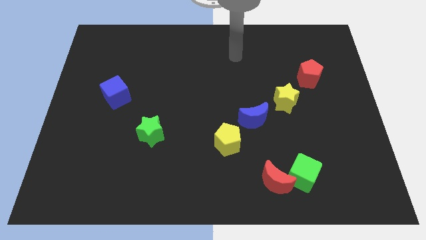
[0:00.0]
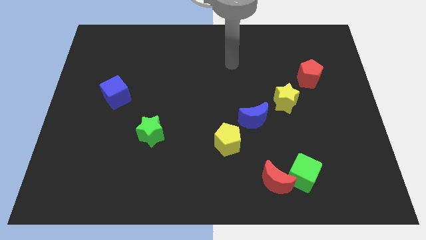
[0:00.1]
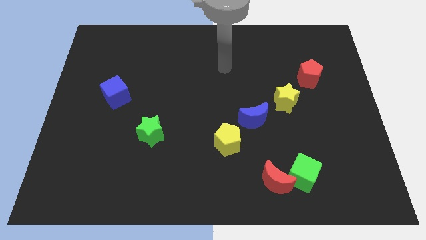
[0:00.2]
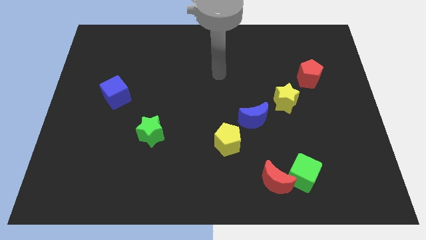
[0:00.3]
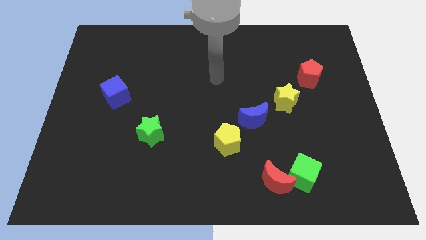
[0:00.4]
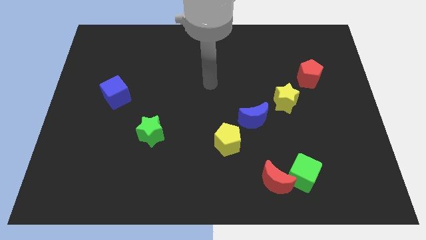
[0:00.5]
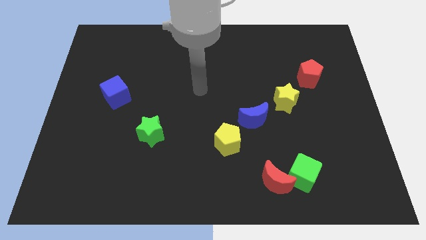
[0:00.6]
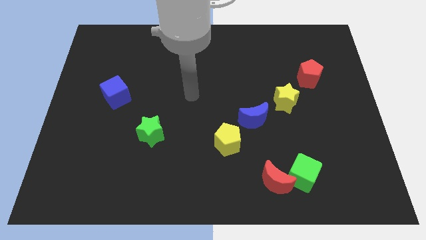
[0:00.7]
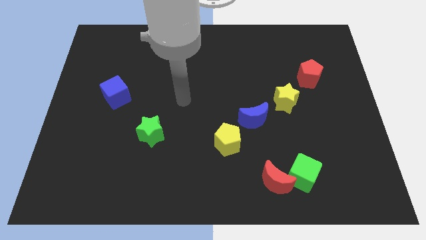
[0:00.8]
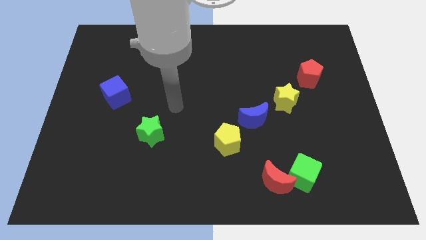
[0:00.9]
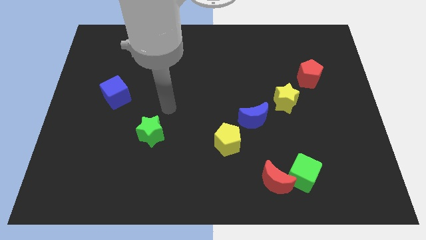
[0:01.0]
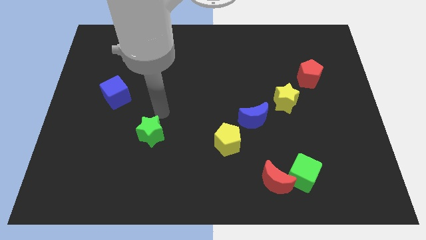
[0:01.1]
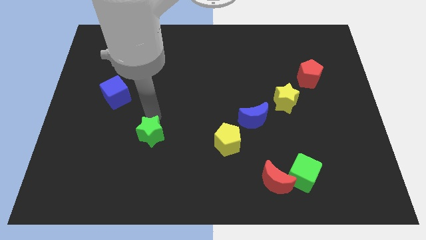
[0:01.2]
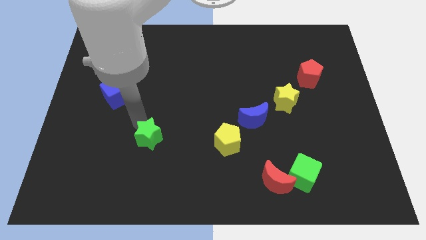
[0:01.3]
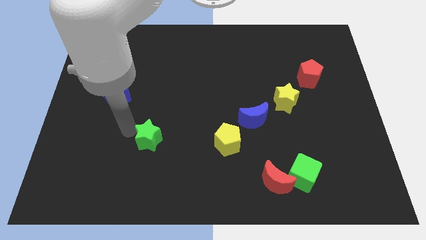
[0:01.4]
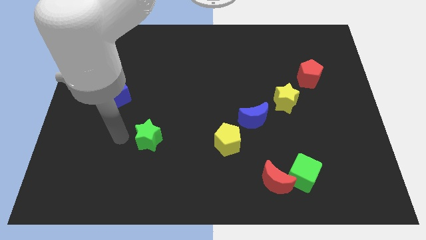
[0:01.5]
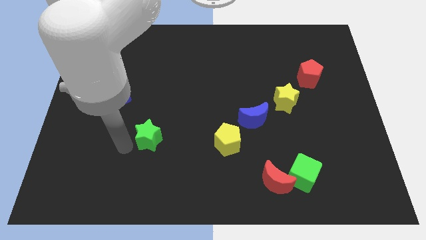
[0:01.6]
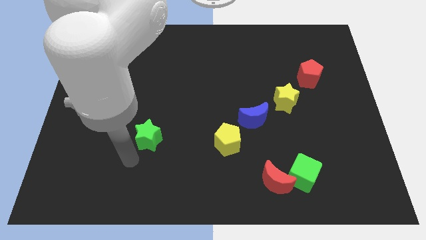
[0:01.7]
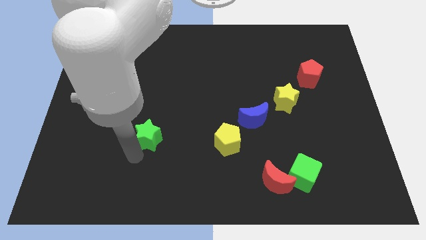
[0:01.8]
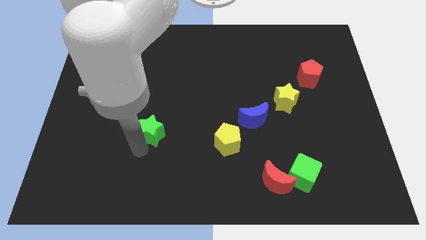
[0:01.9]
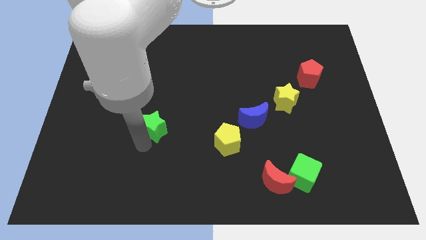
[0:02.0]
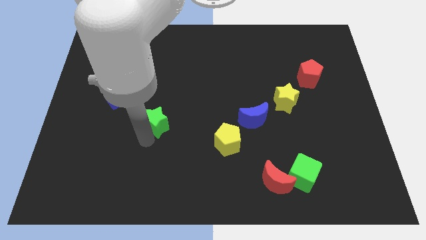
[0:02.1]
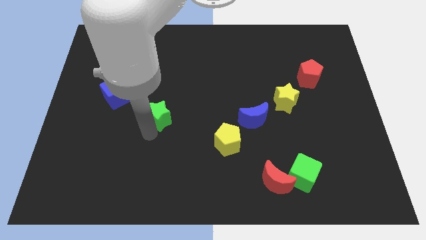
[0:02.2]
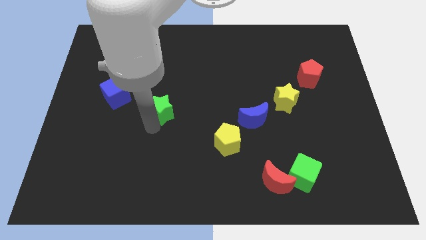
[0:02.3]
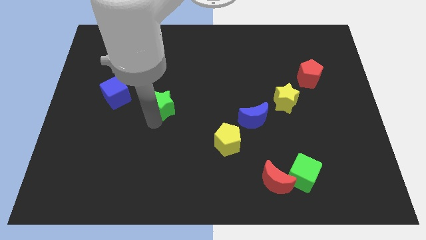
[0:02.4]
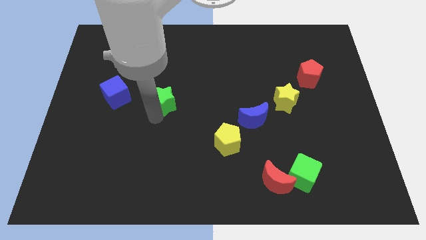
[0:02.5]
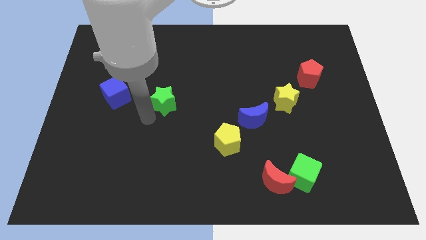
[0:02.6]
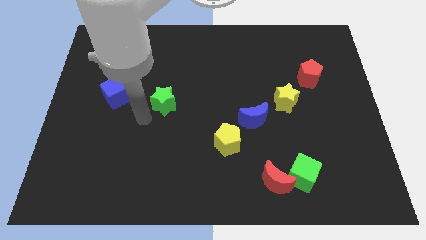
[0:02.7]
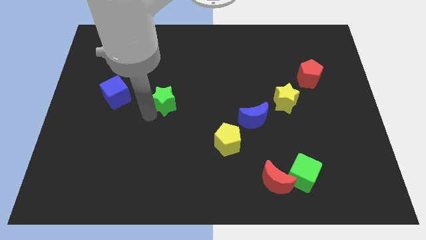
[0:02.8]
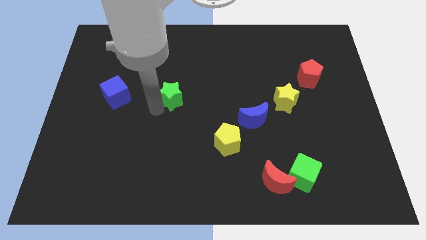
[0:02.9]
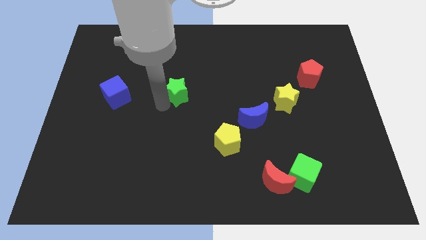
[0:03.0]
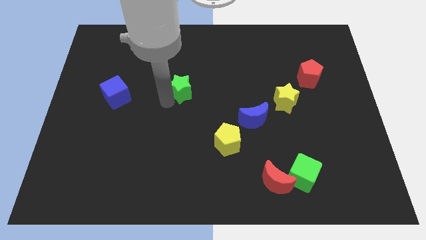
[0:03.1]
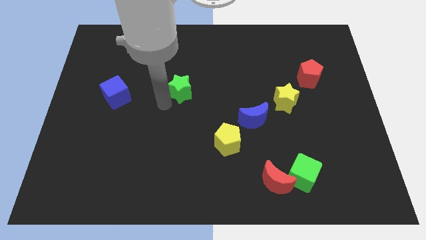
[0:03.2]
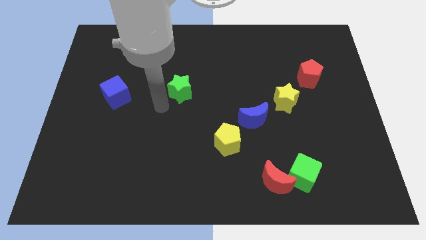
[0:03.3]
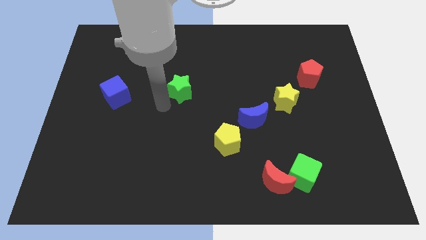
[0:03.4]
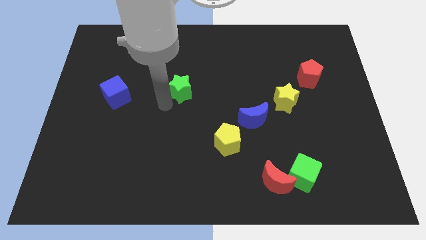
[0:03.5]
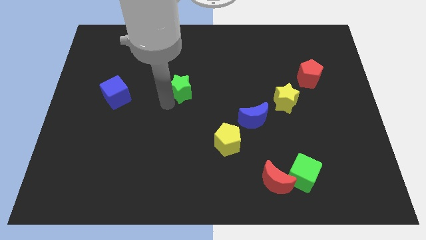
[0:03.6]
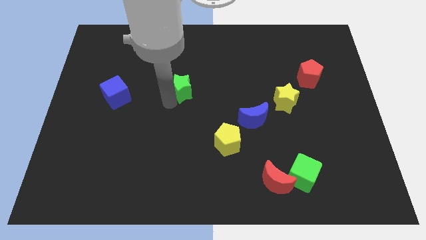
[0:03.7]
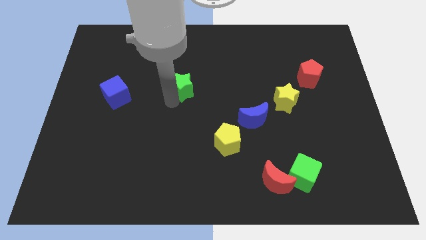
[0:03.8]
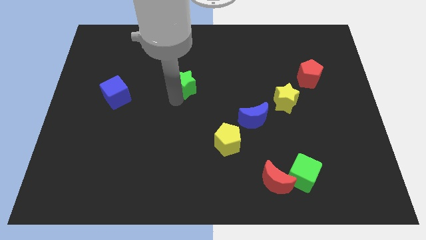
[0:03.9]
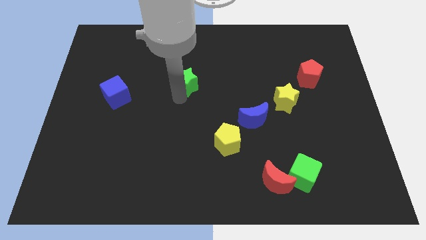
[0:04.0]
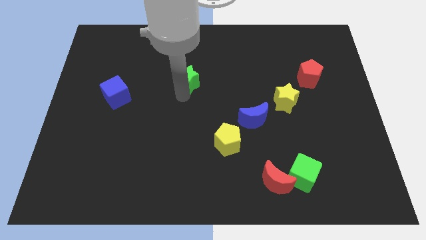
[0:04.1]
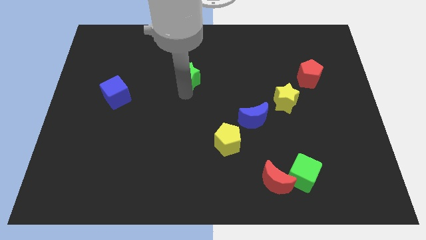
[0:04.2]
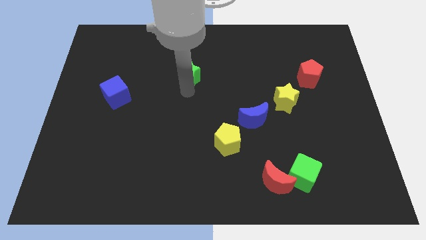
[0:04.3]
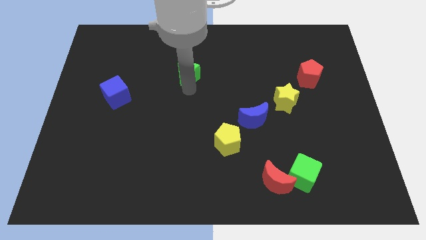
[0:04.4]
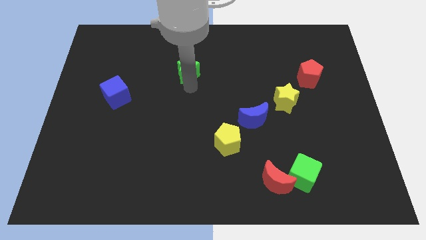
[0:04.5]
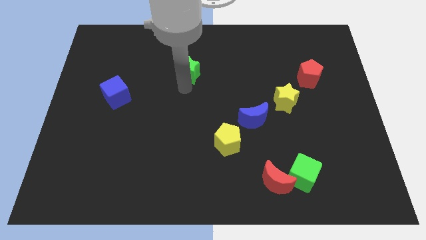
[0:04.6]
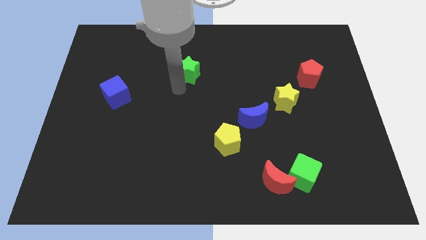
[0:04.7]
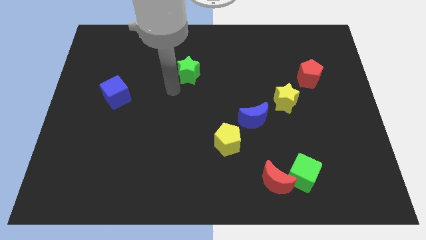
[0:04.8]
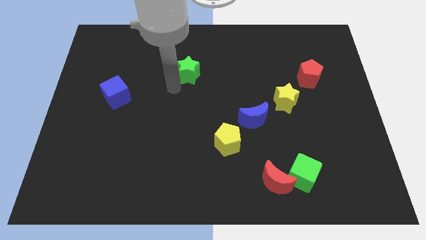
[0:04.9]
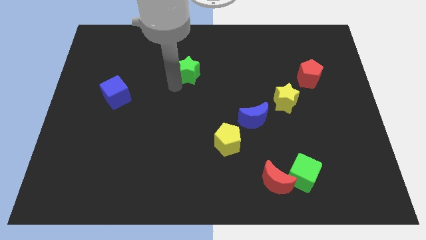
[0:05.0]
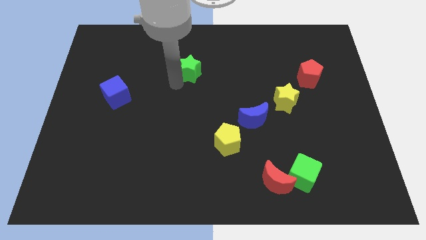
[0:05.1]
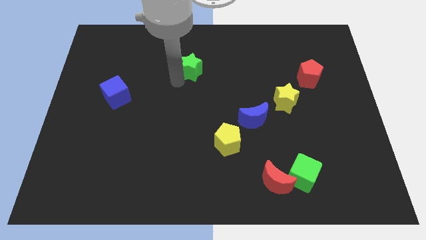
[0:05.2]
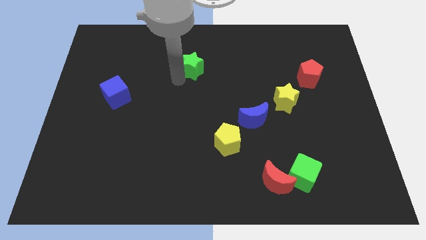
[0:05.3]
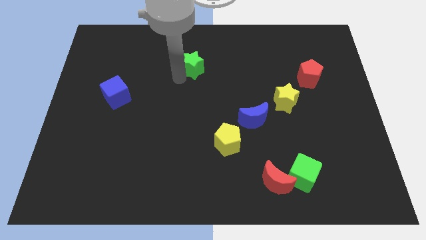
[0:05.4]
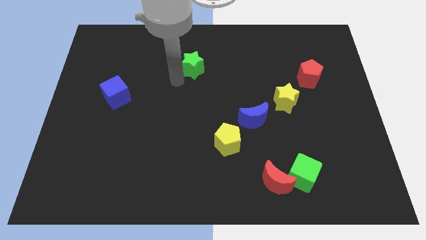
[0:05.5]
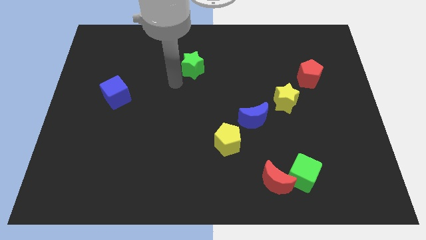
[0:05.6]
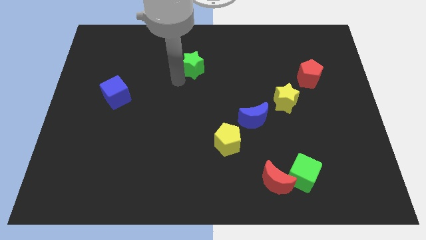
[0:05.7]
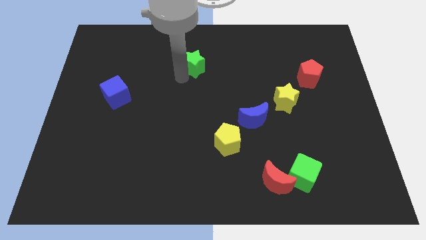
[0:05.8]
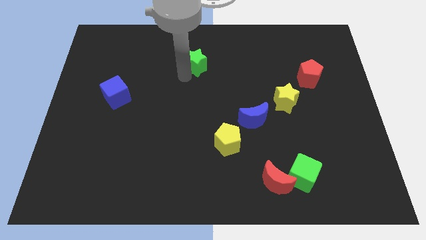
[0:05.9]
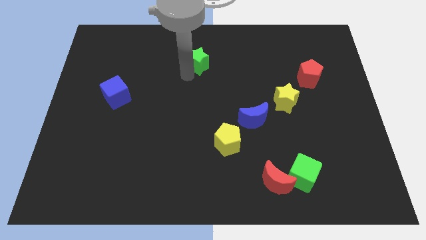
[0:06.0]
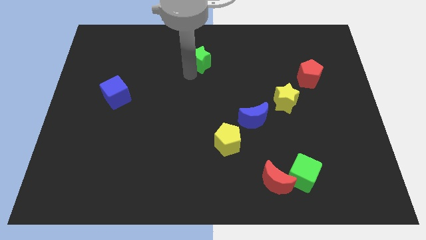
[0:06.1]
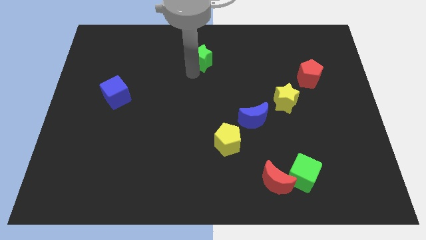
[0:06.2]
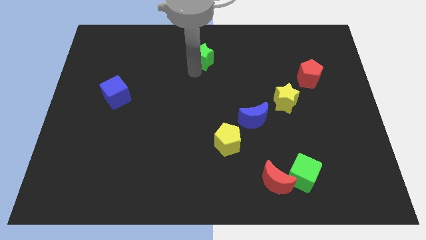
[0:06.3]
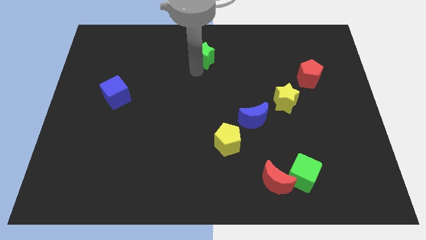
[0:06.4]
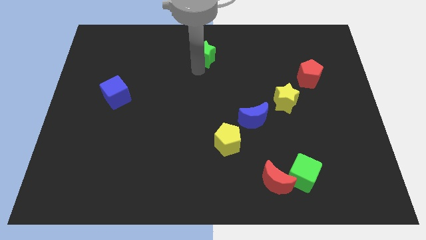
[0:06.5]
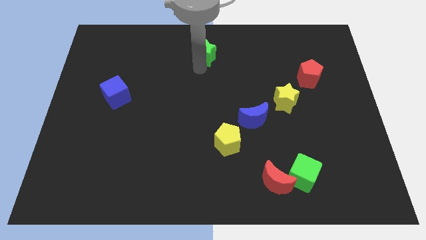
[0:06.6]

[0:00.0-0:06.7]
put the green star to the top
